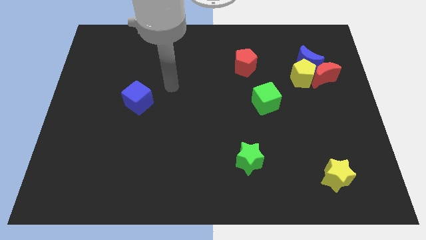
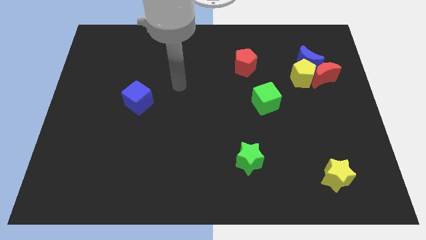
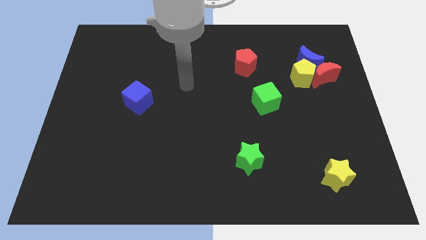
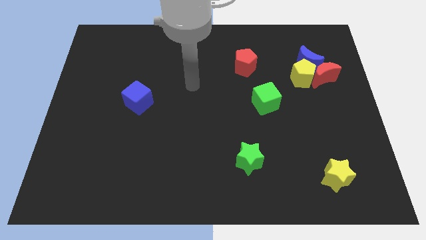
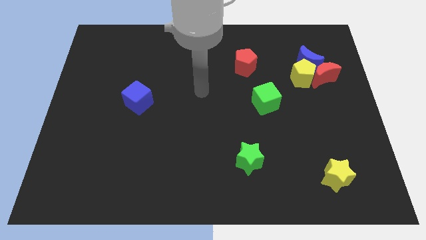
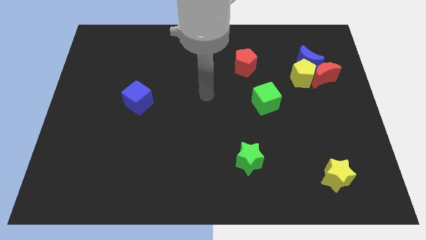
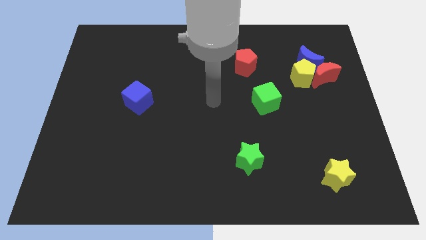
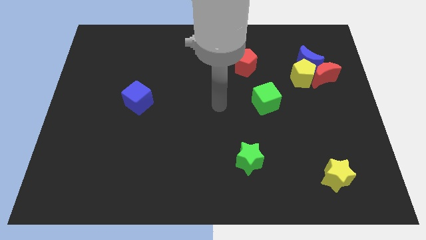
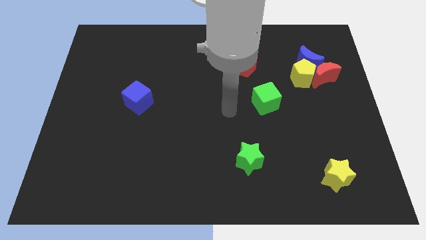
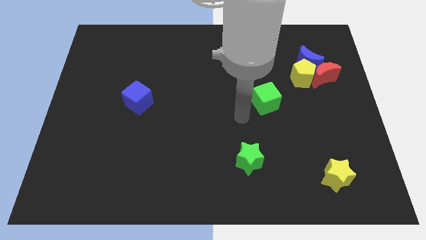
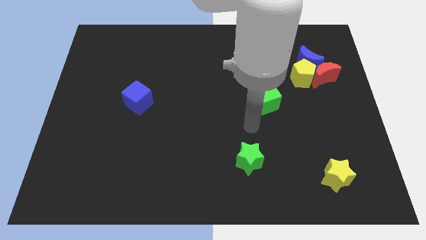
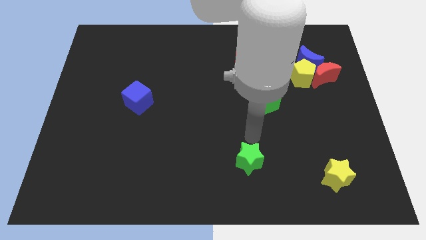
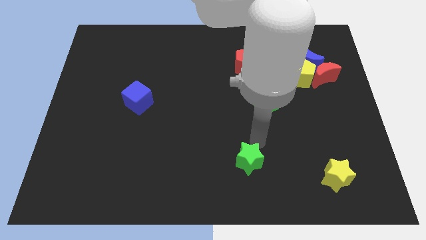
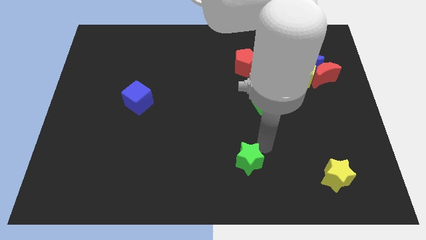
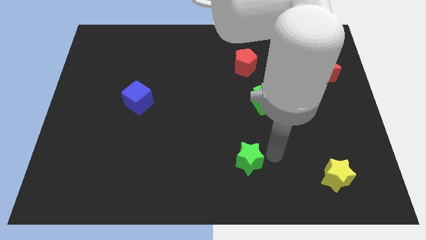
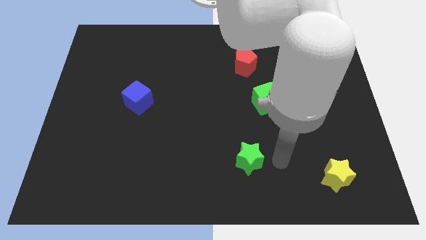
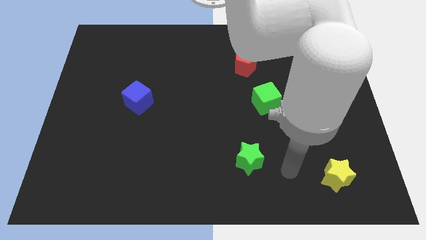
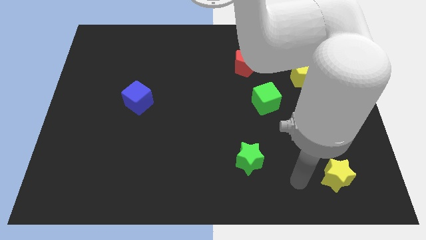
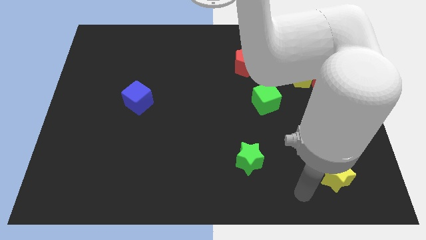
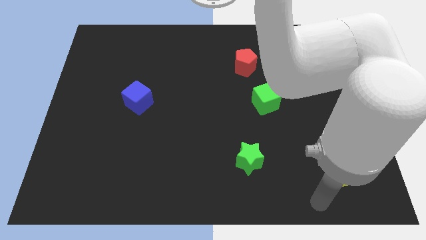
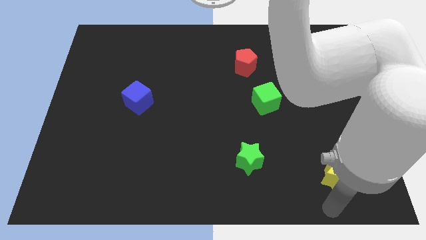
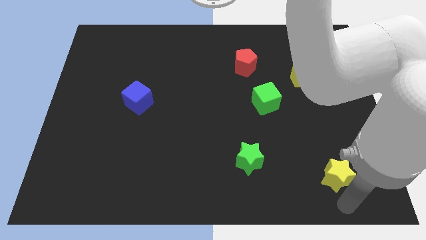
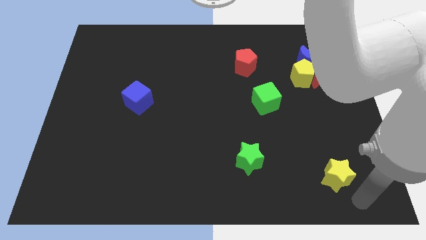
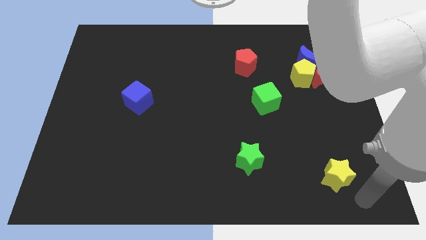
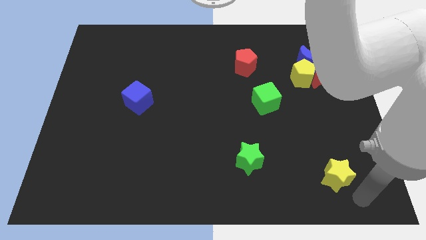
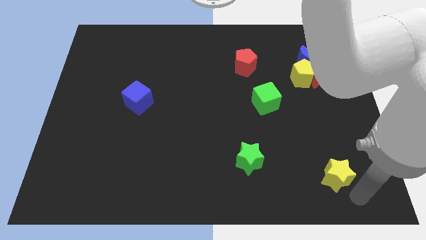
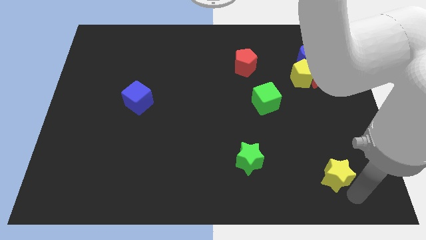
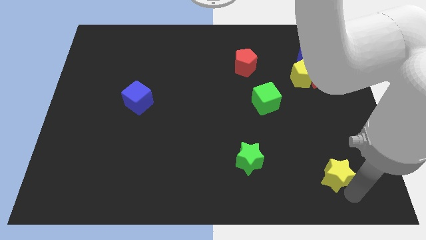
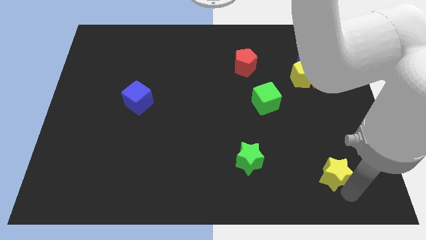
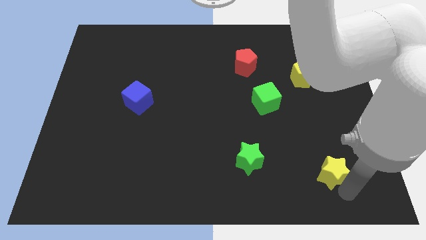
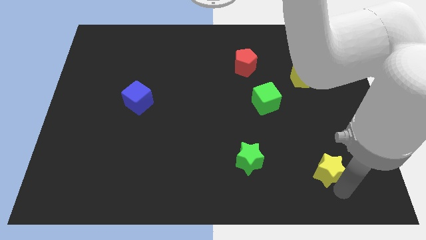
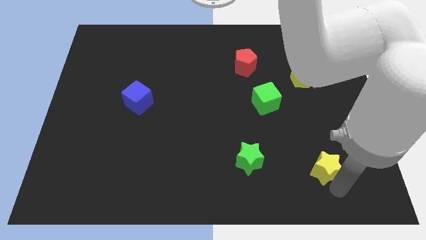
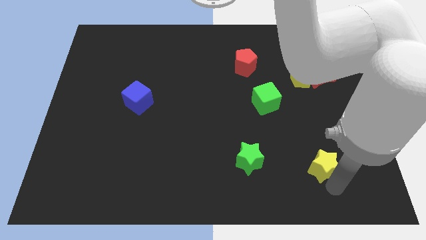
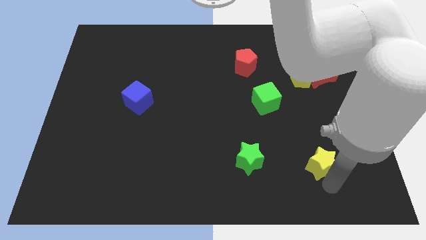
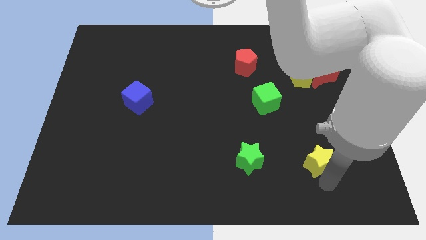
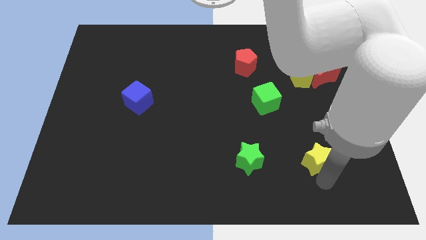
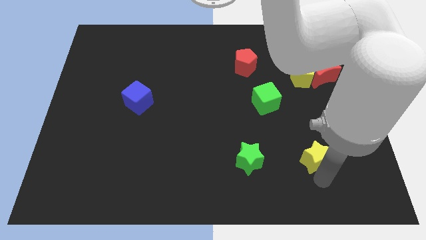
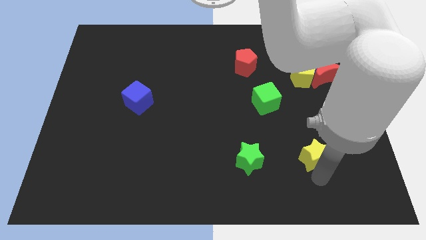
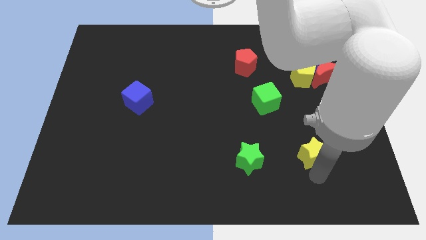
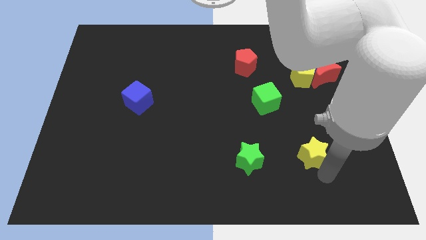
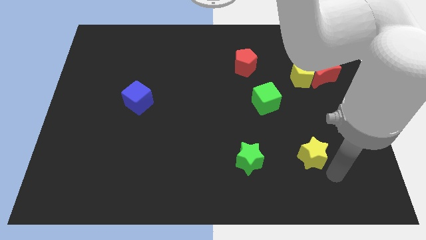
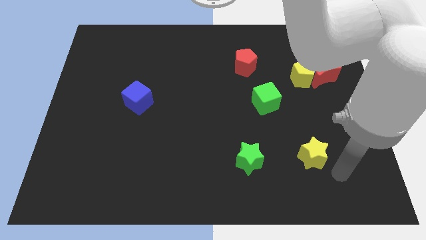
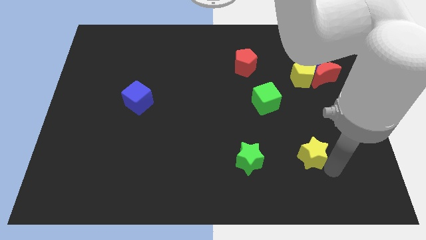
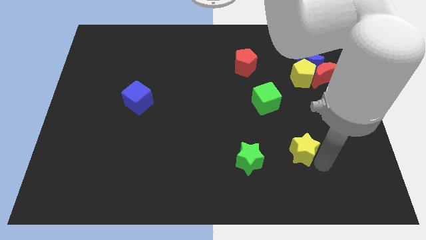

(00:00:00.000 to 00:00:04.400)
slightly slide the yellow star up and then to the left

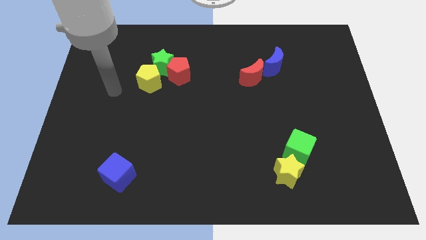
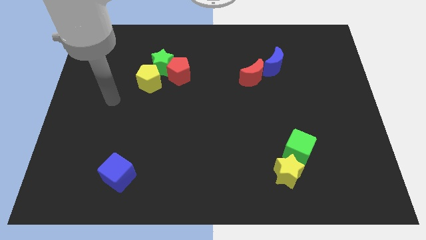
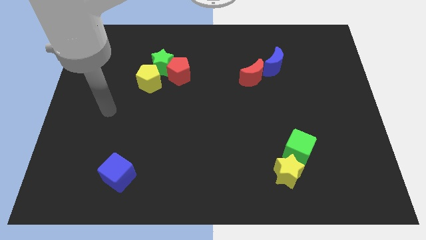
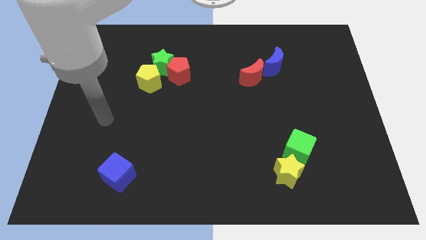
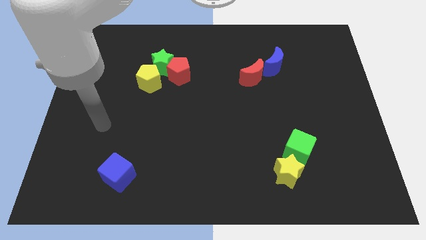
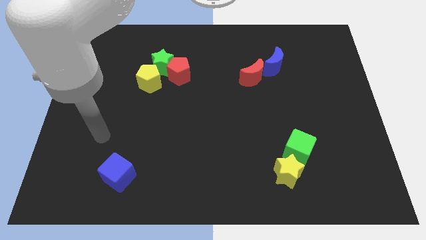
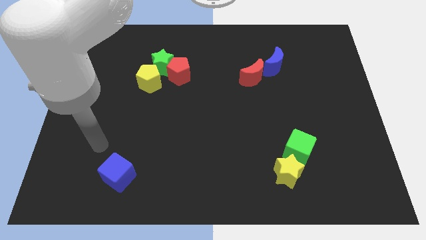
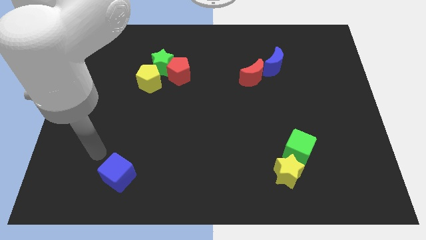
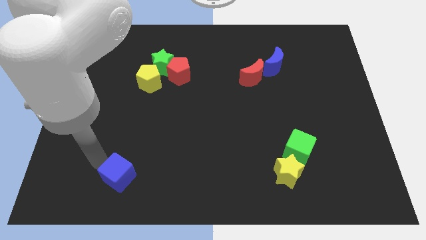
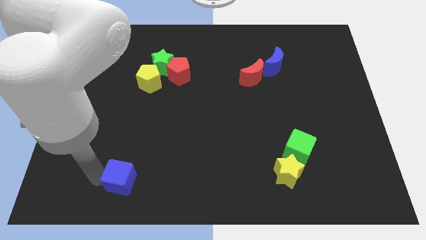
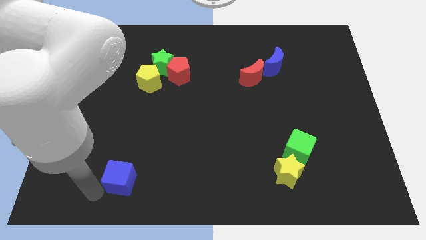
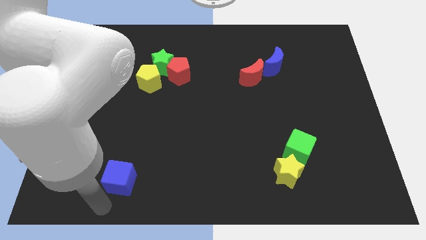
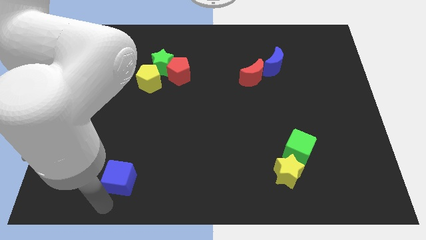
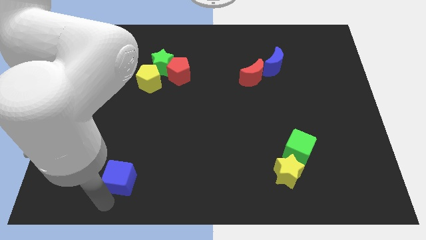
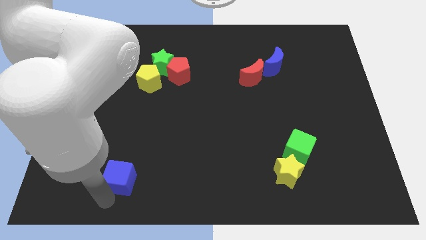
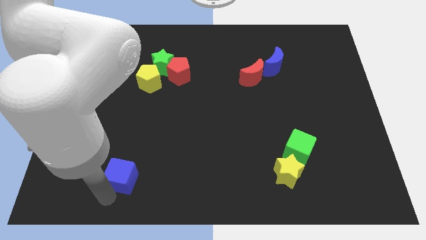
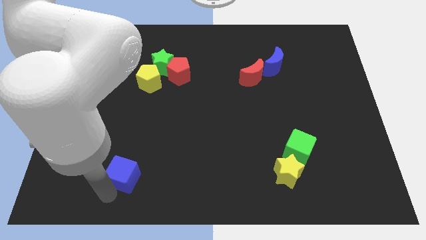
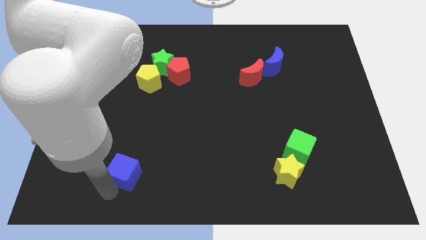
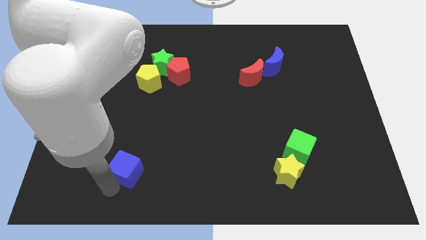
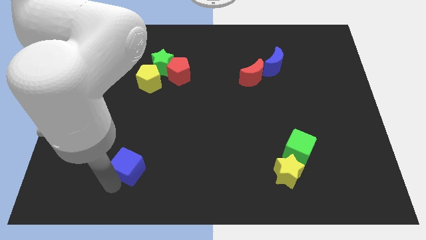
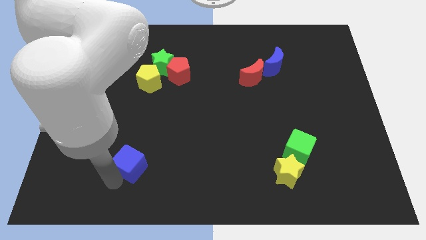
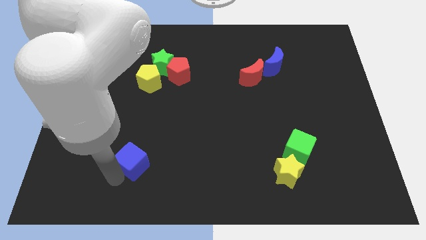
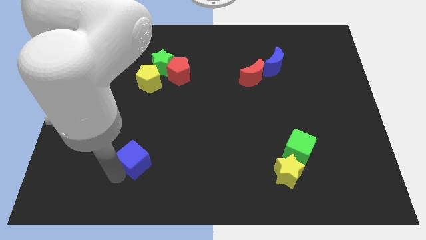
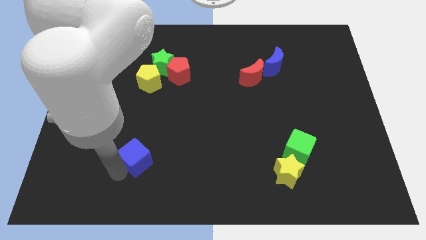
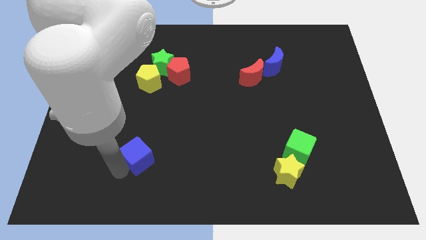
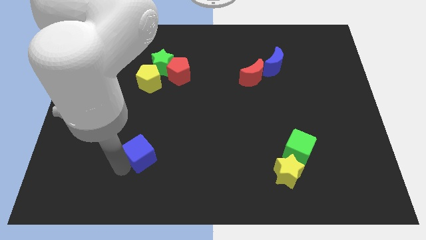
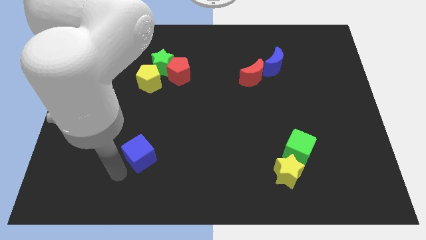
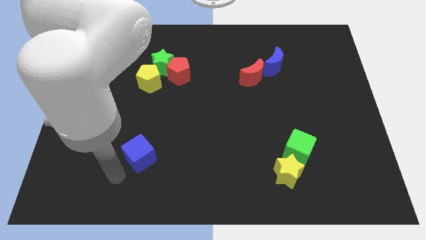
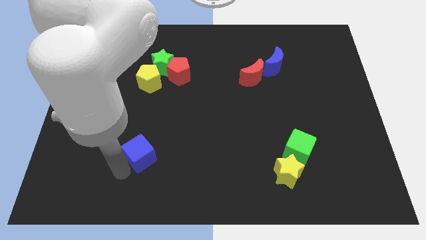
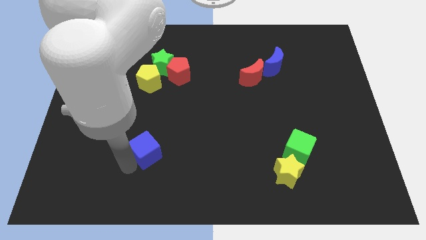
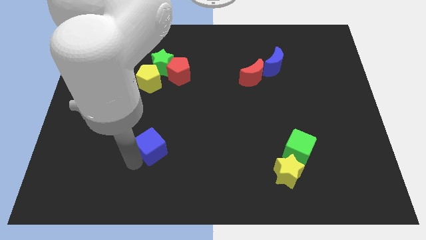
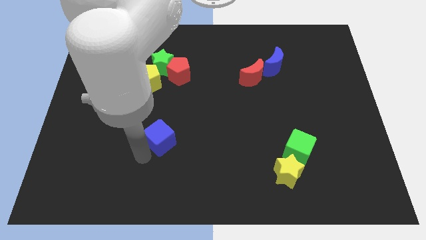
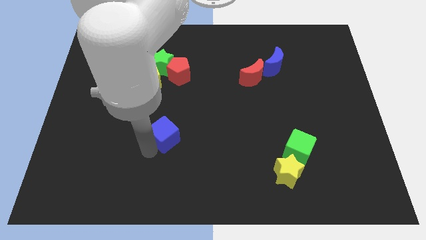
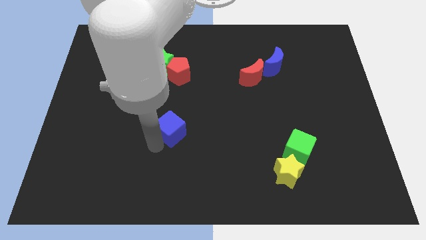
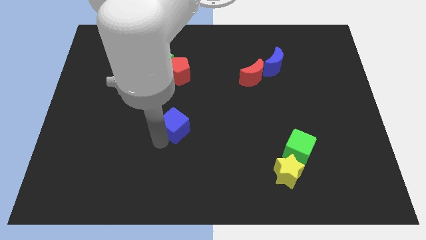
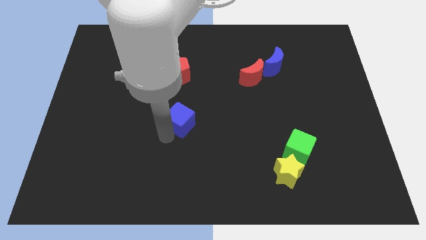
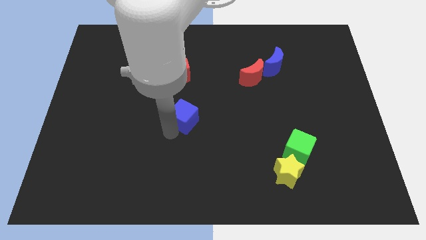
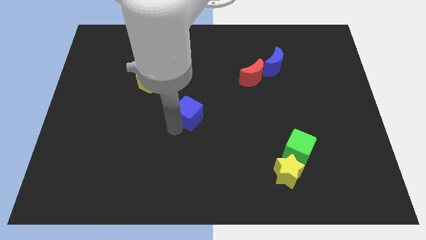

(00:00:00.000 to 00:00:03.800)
move the blue cube up and to the right diagonally
